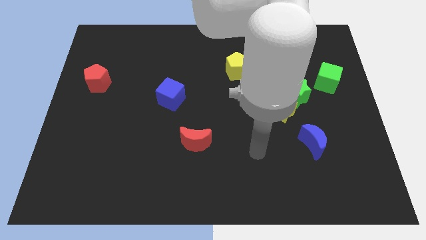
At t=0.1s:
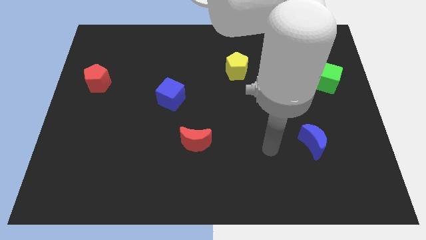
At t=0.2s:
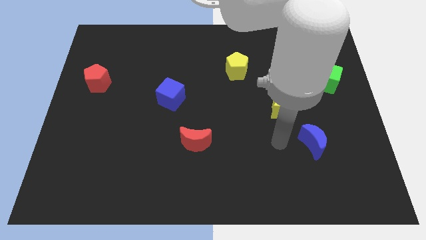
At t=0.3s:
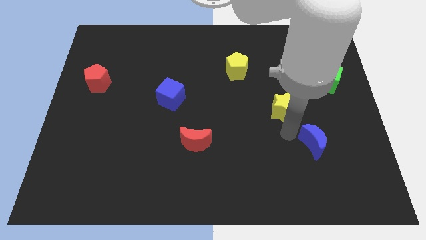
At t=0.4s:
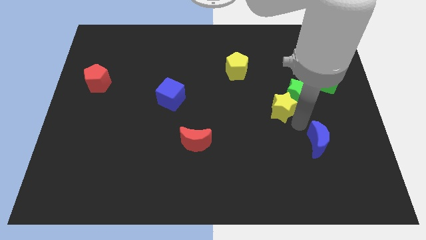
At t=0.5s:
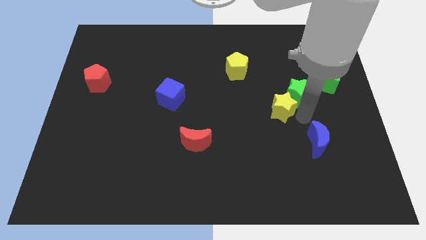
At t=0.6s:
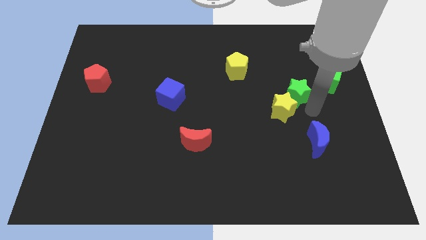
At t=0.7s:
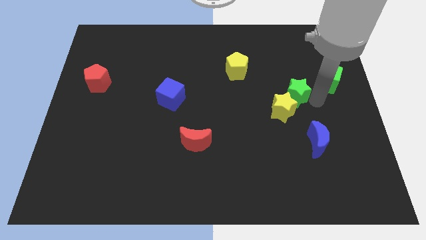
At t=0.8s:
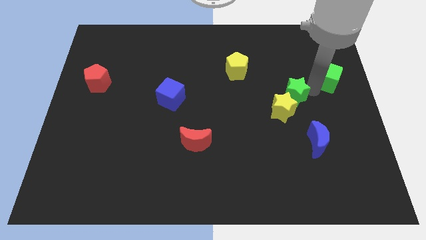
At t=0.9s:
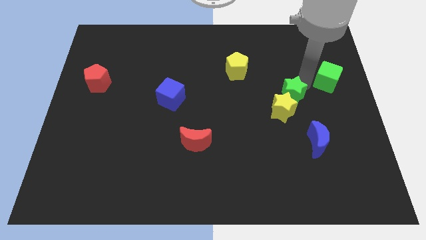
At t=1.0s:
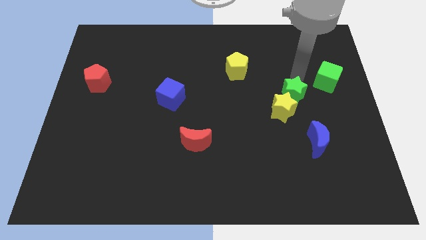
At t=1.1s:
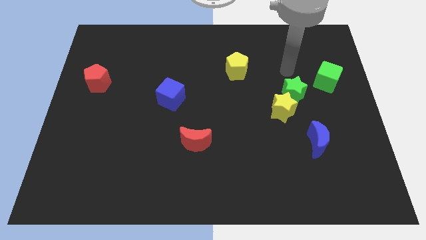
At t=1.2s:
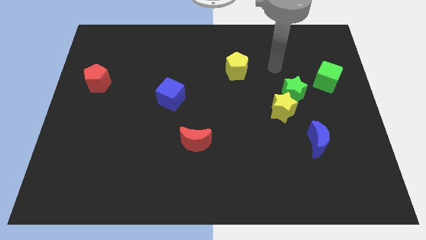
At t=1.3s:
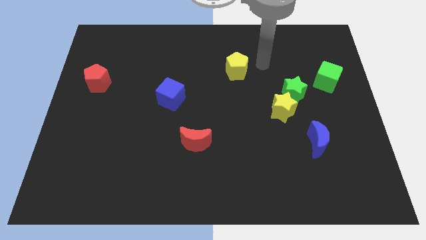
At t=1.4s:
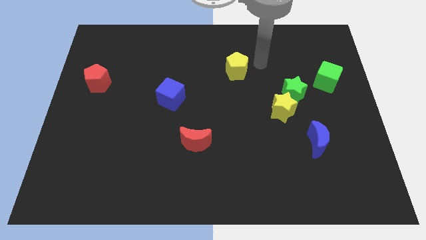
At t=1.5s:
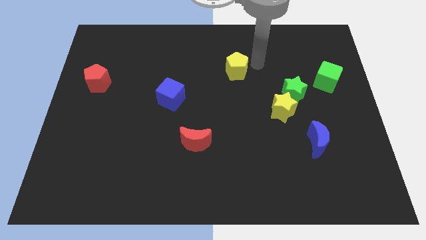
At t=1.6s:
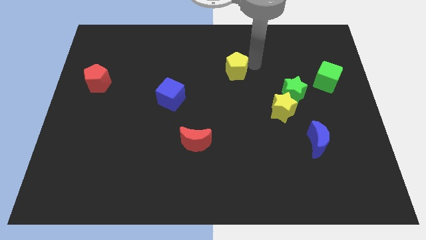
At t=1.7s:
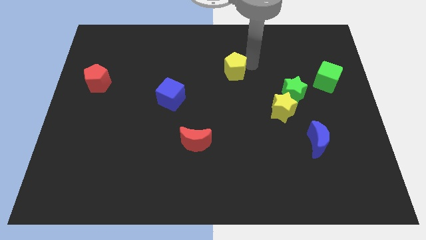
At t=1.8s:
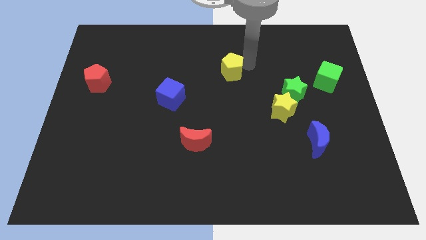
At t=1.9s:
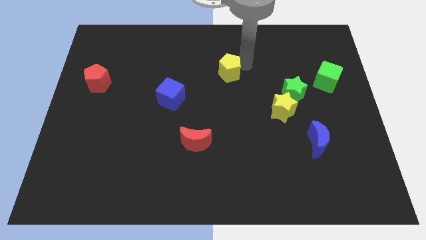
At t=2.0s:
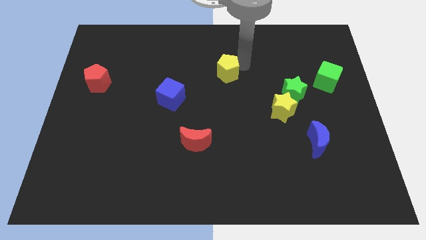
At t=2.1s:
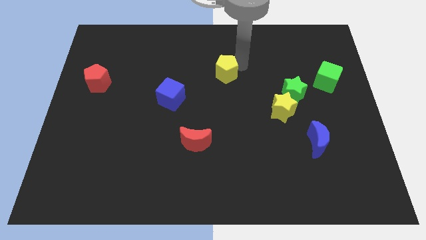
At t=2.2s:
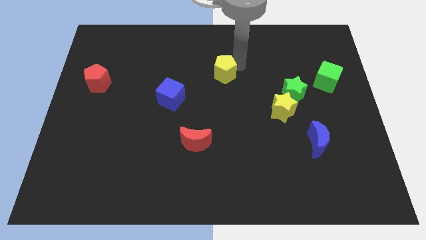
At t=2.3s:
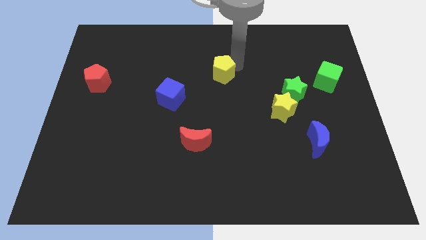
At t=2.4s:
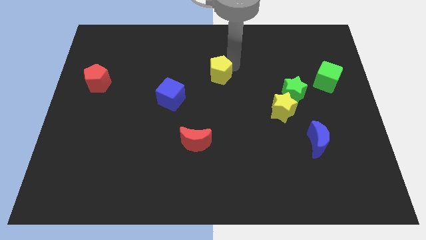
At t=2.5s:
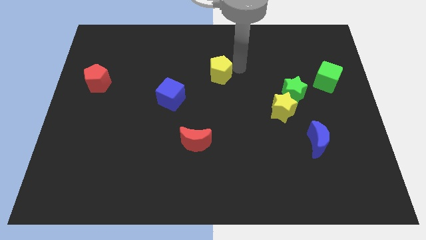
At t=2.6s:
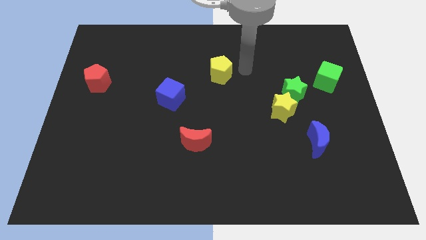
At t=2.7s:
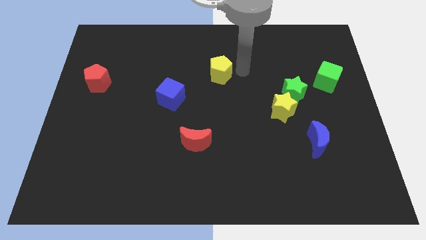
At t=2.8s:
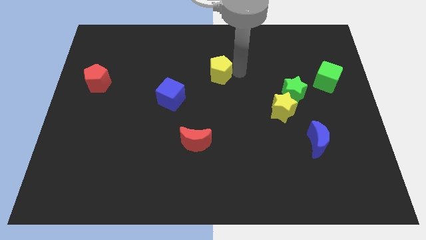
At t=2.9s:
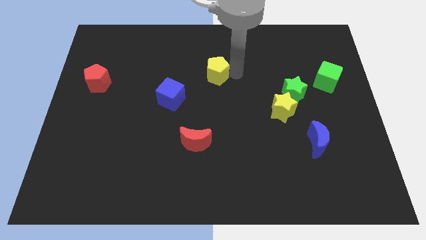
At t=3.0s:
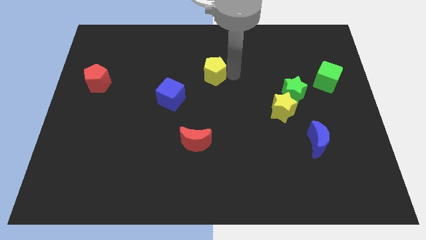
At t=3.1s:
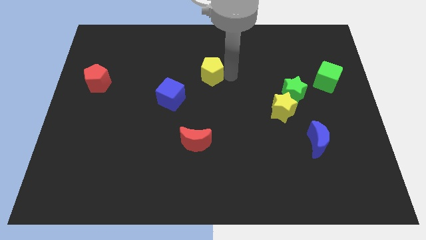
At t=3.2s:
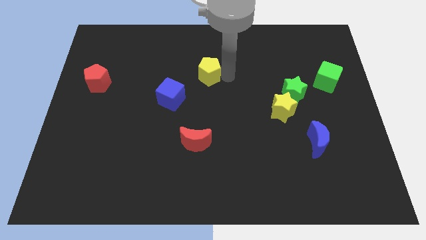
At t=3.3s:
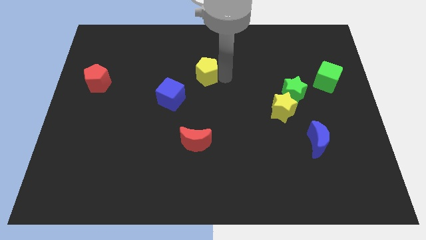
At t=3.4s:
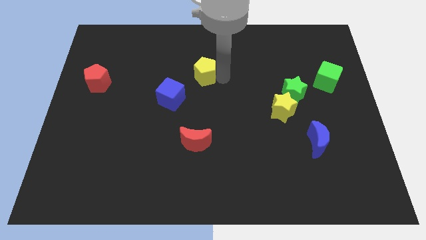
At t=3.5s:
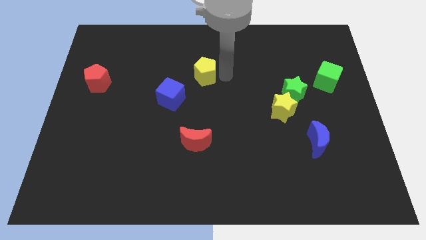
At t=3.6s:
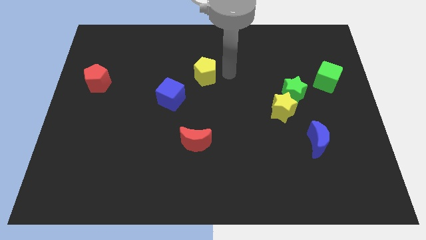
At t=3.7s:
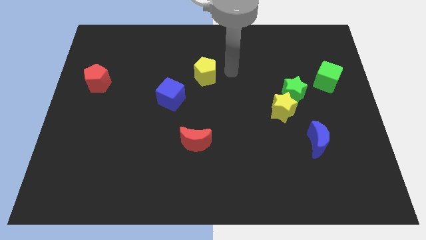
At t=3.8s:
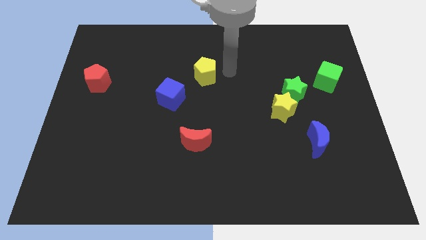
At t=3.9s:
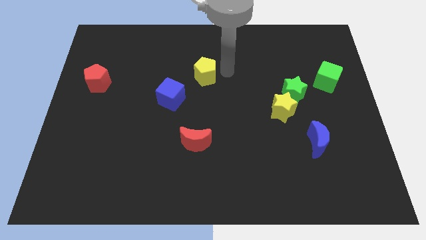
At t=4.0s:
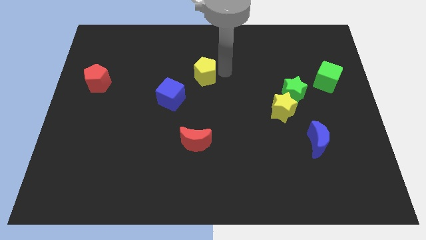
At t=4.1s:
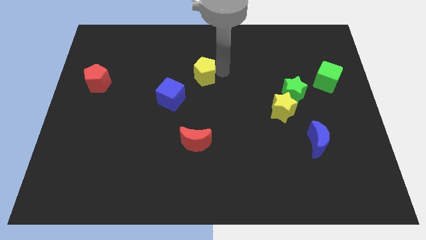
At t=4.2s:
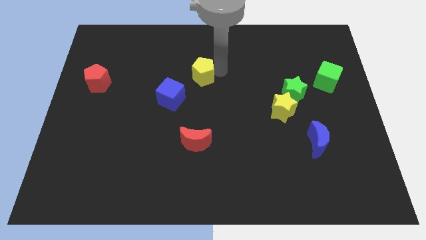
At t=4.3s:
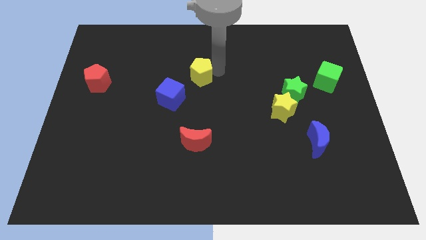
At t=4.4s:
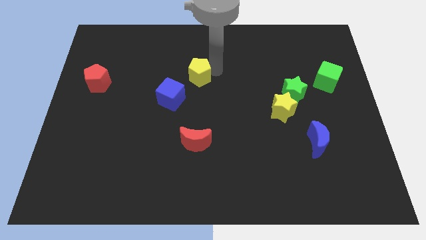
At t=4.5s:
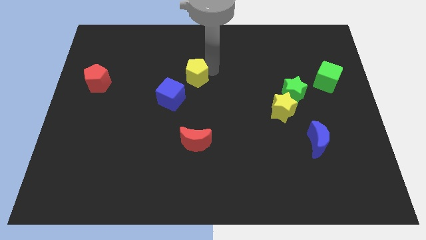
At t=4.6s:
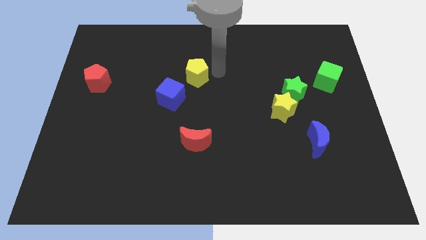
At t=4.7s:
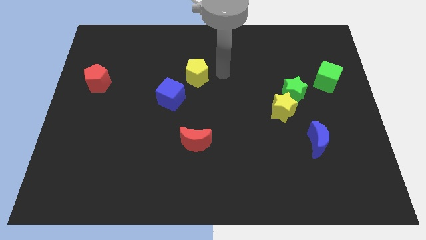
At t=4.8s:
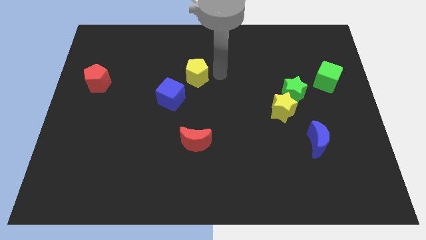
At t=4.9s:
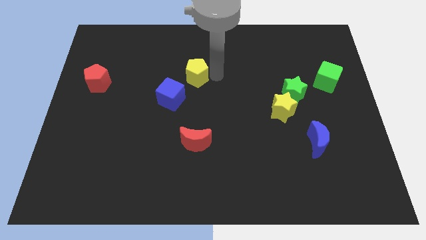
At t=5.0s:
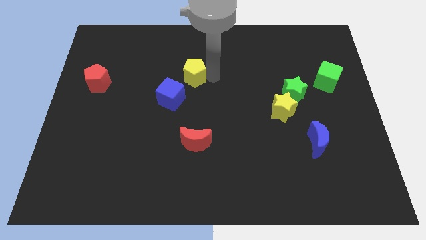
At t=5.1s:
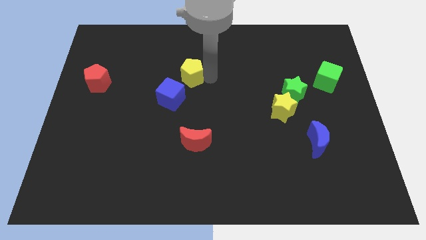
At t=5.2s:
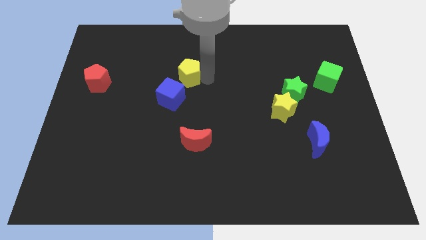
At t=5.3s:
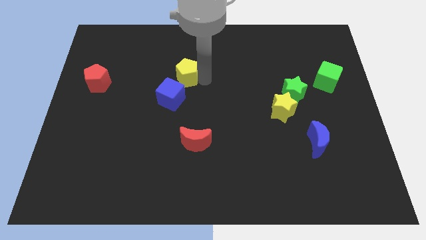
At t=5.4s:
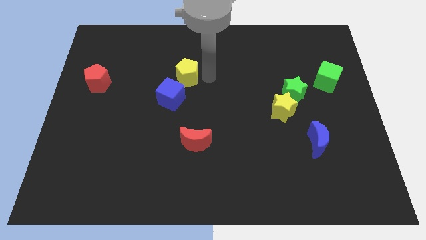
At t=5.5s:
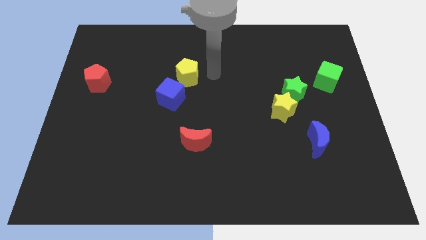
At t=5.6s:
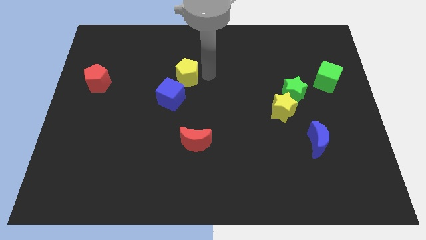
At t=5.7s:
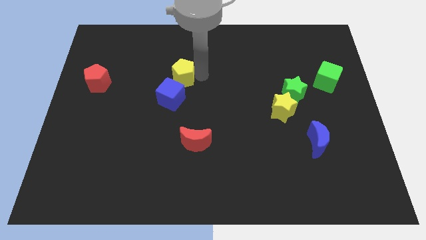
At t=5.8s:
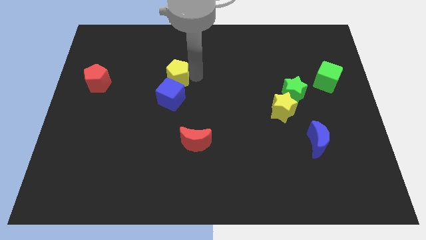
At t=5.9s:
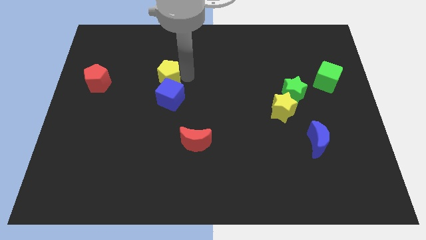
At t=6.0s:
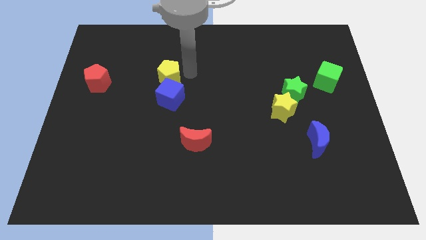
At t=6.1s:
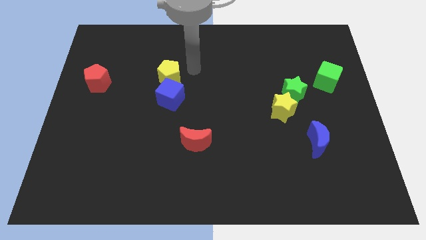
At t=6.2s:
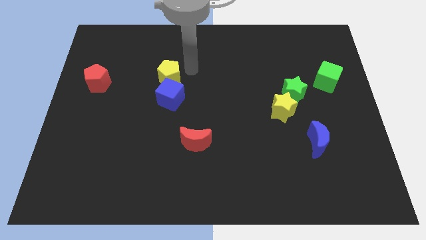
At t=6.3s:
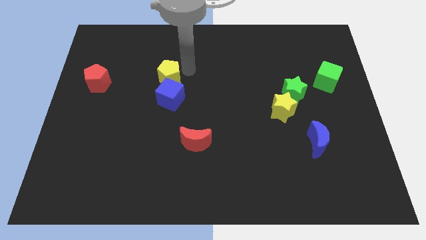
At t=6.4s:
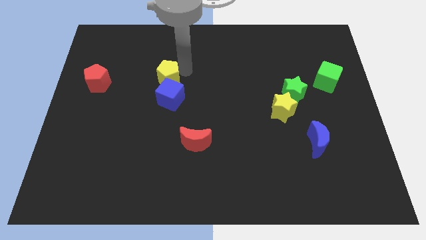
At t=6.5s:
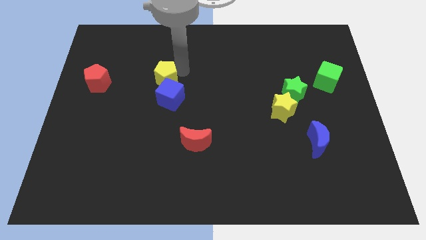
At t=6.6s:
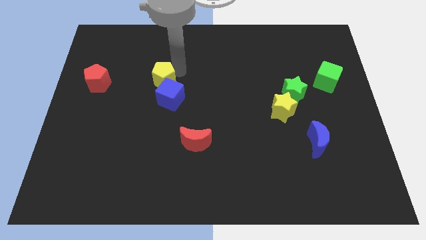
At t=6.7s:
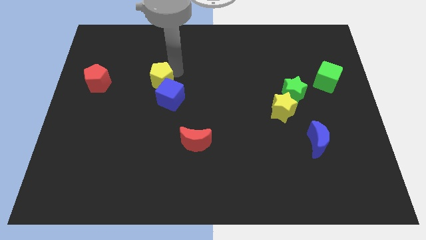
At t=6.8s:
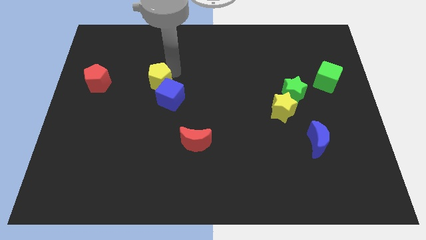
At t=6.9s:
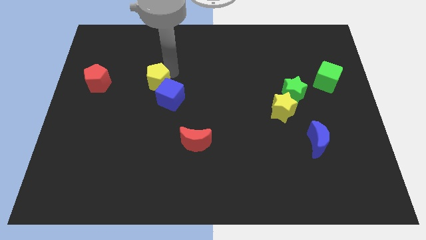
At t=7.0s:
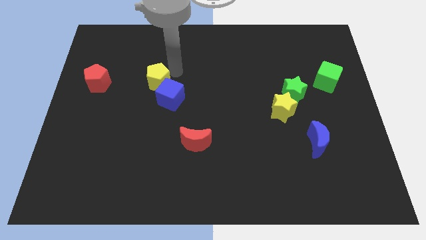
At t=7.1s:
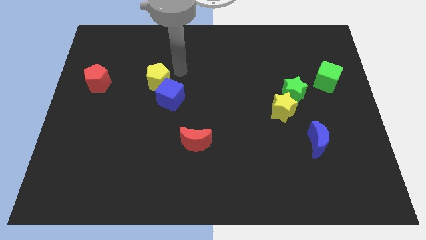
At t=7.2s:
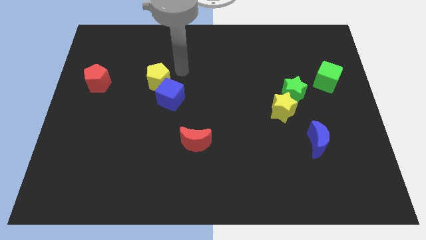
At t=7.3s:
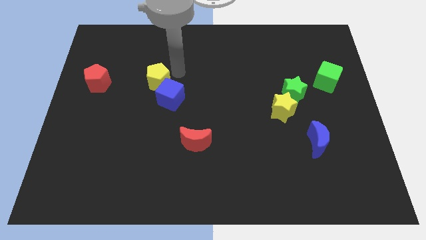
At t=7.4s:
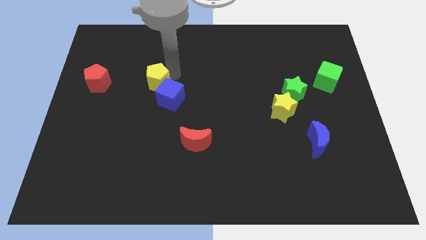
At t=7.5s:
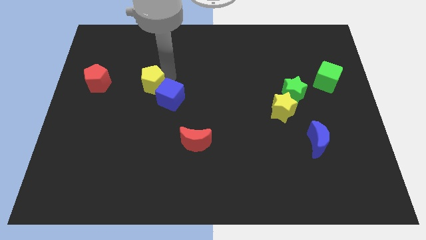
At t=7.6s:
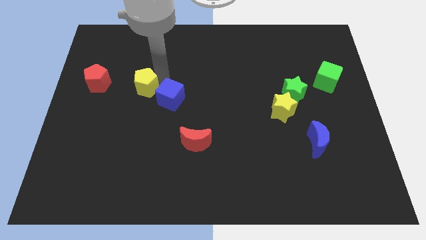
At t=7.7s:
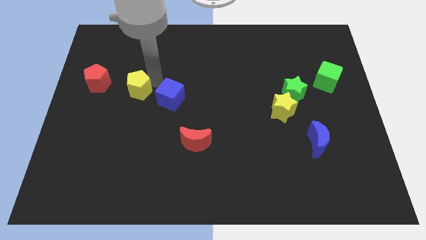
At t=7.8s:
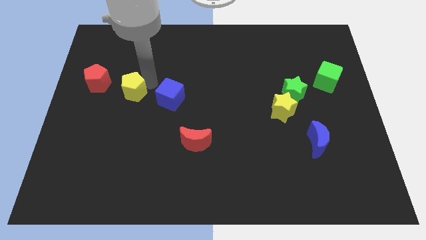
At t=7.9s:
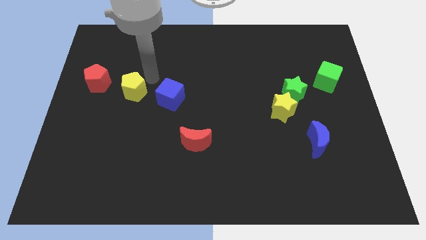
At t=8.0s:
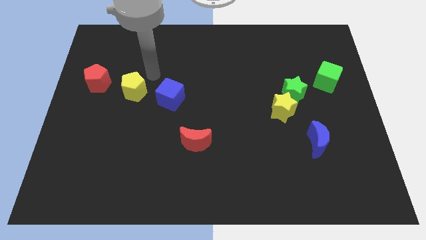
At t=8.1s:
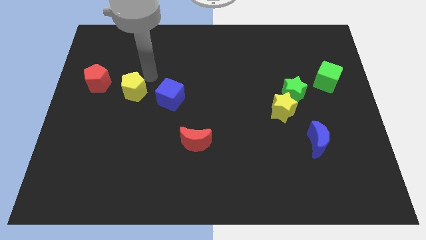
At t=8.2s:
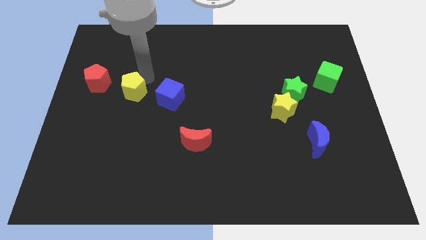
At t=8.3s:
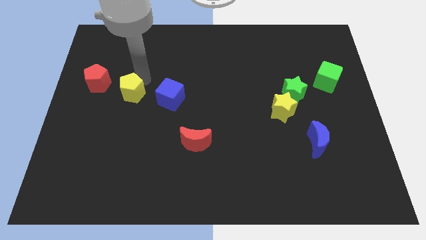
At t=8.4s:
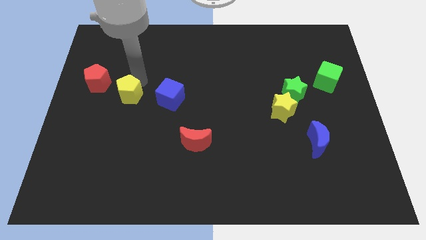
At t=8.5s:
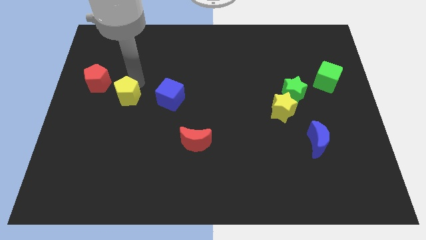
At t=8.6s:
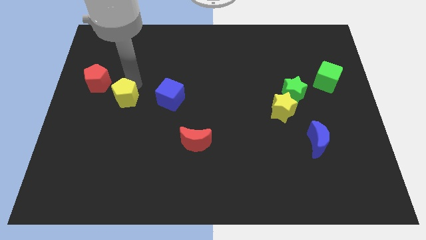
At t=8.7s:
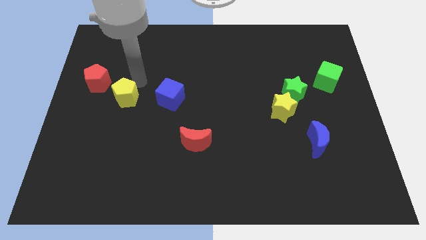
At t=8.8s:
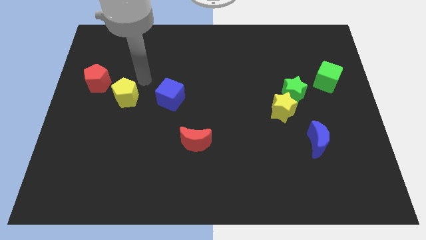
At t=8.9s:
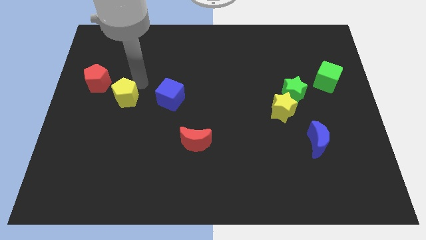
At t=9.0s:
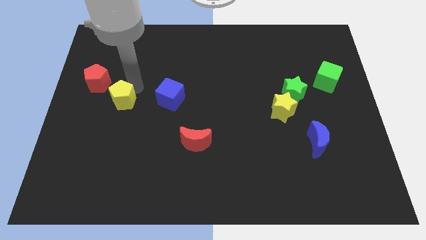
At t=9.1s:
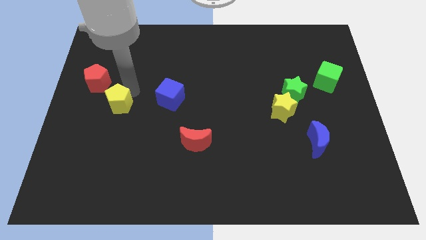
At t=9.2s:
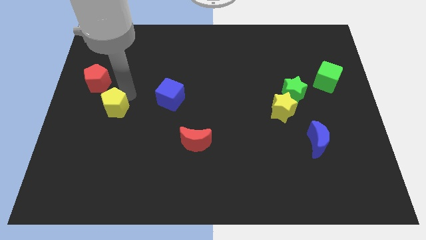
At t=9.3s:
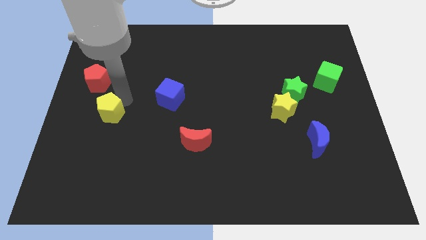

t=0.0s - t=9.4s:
push the yellow pentagon to the bottom of the red pentagon
